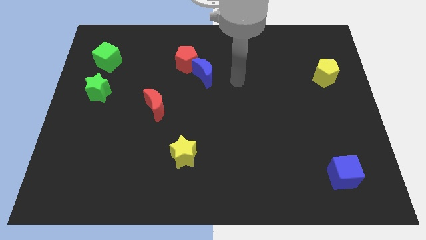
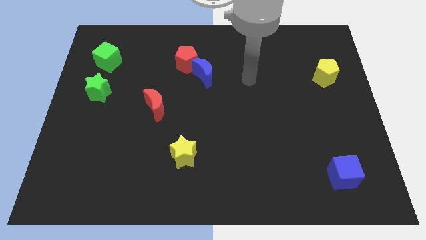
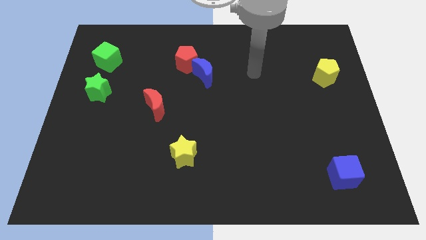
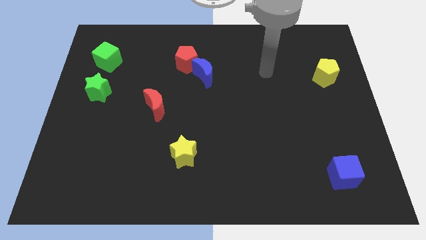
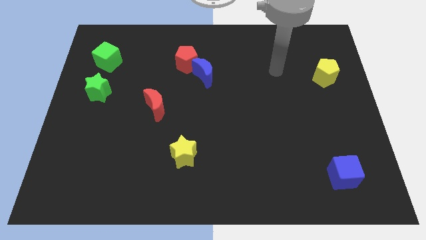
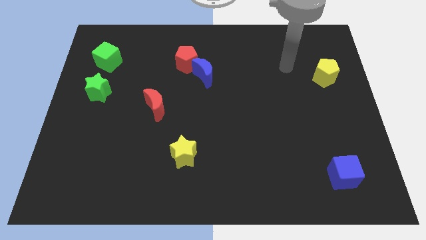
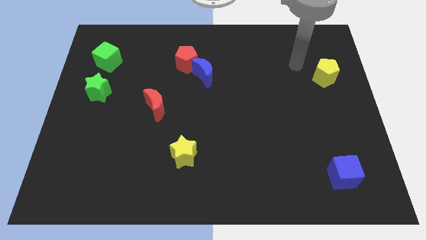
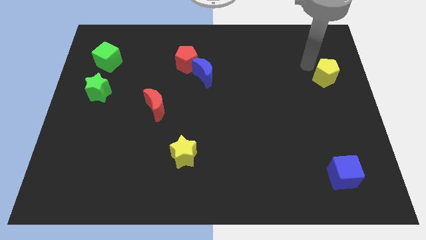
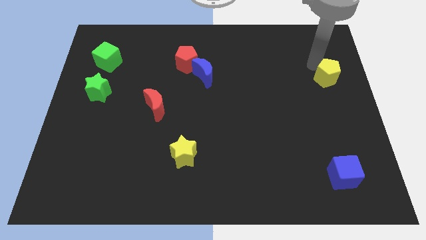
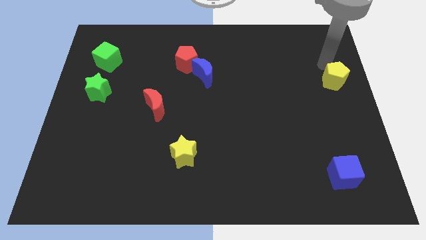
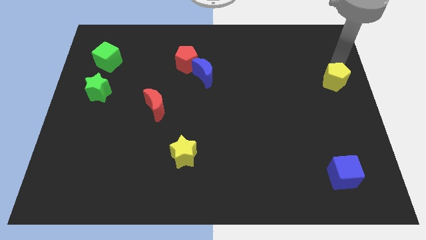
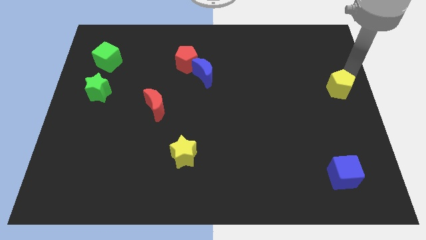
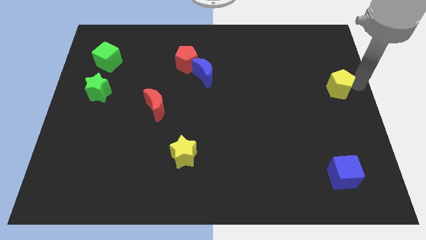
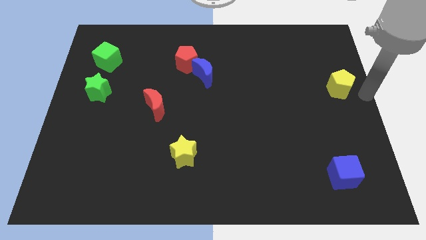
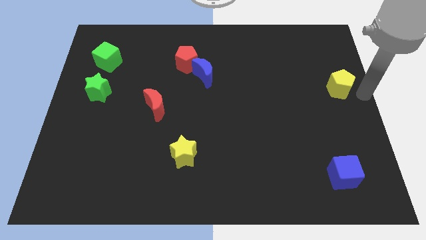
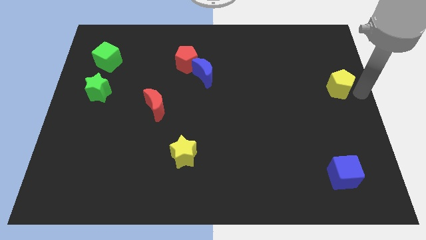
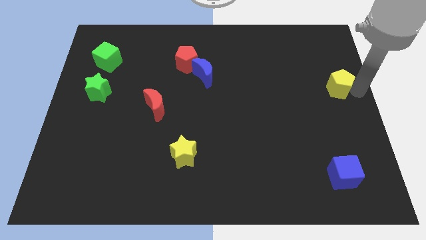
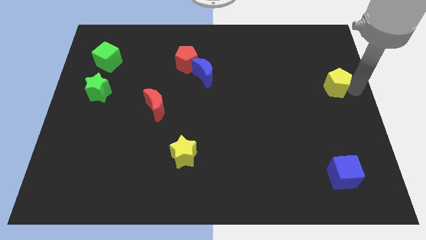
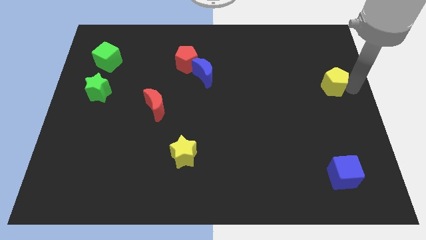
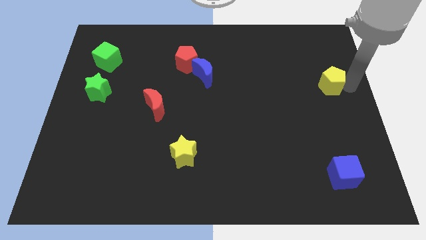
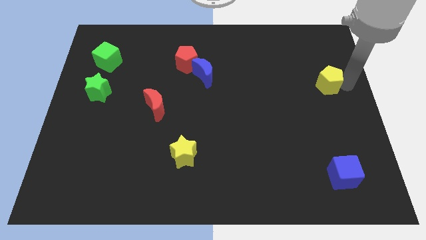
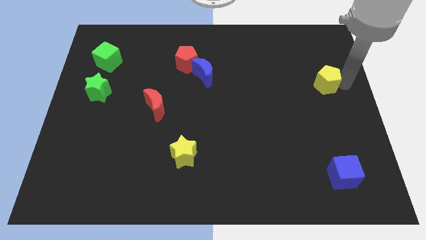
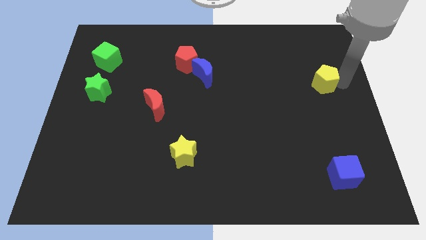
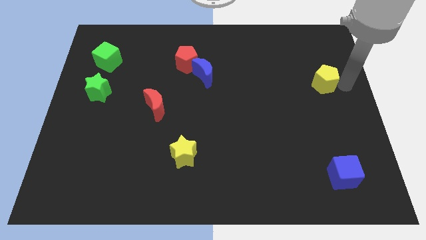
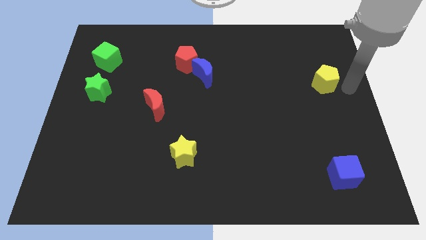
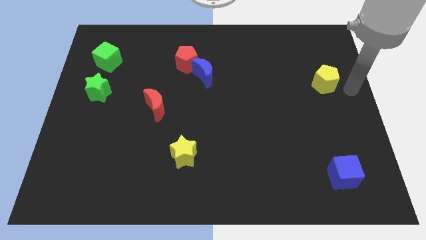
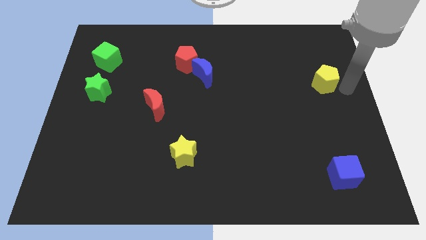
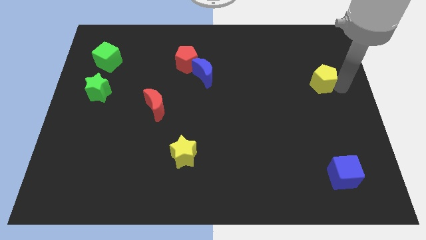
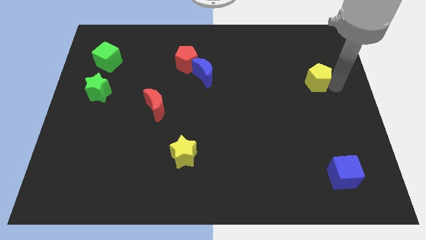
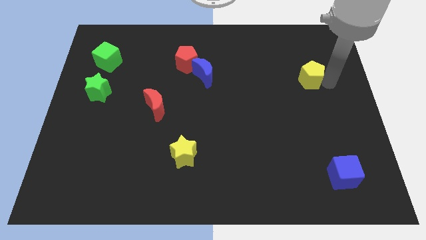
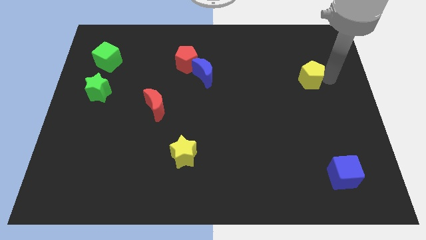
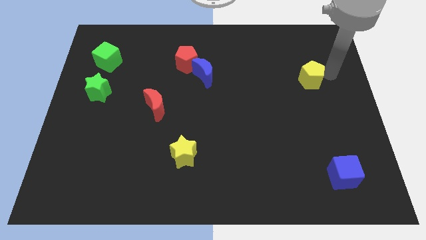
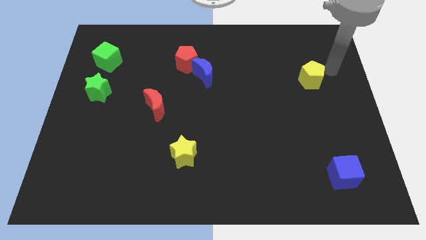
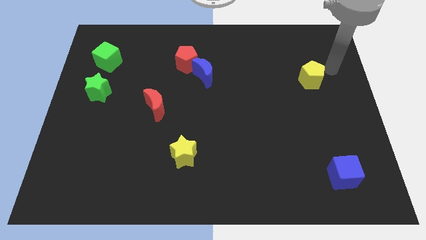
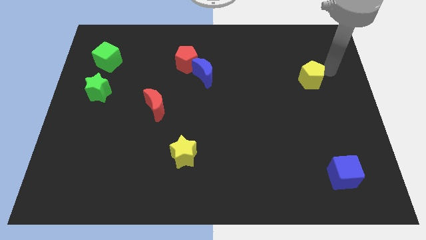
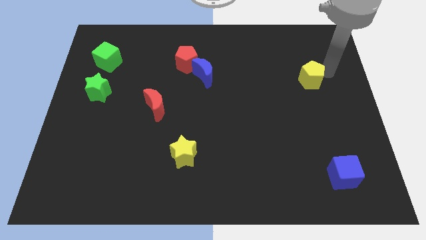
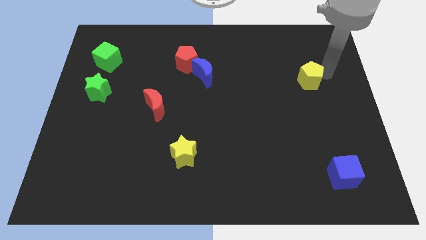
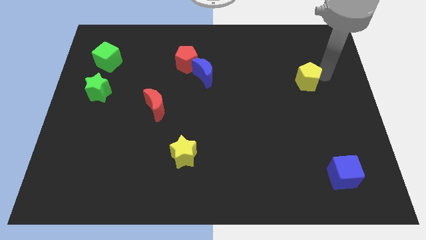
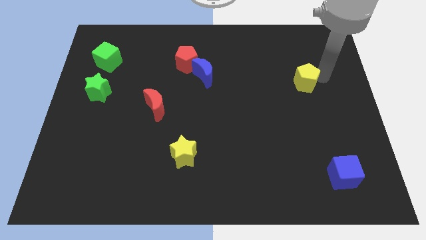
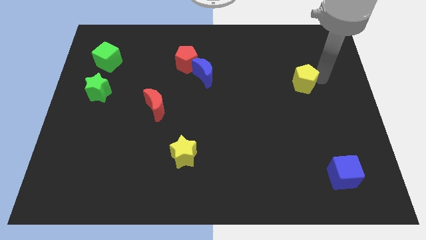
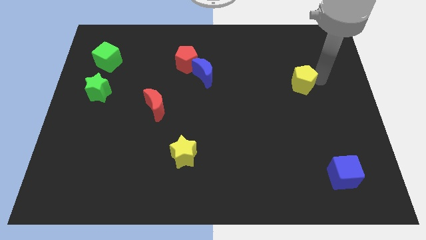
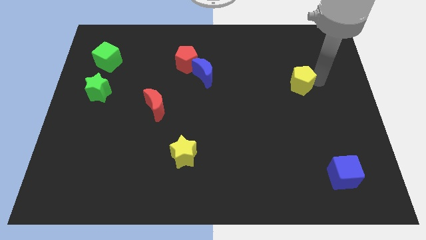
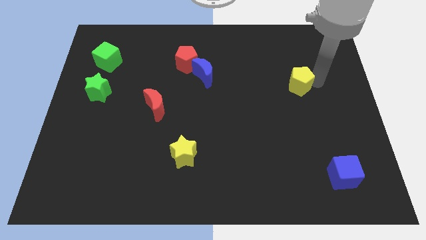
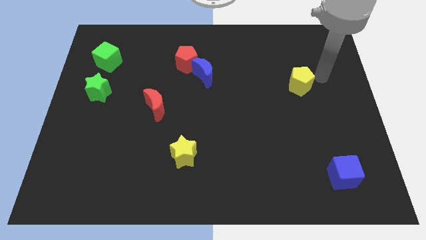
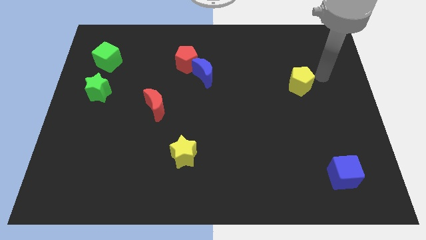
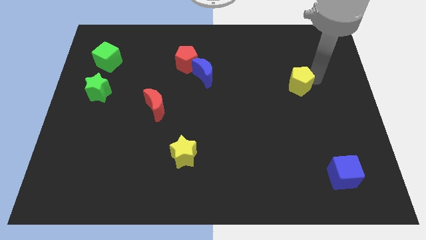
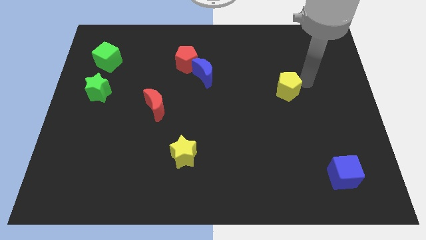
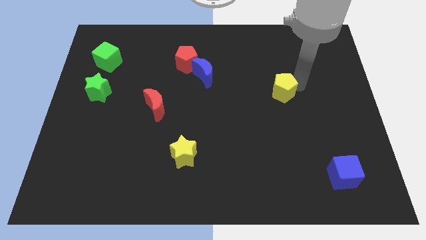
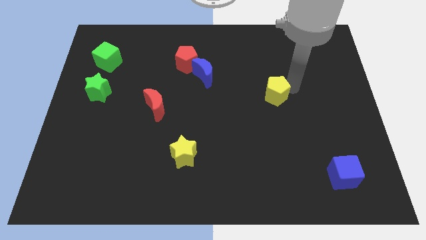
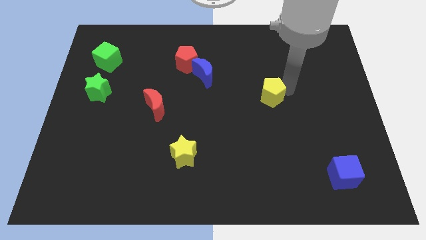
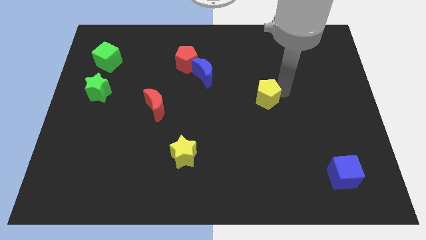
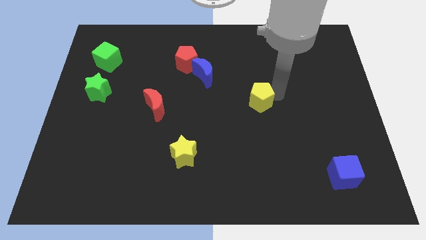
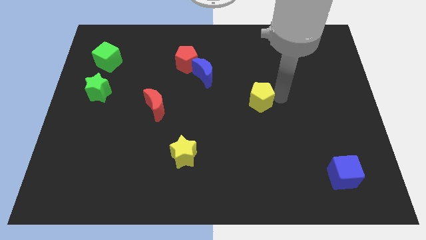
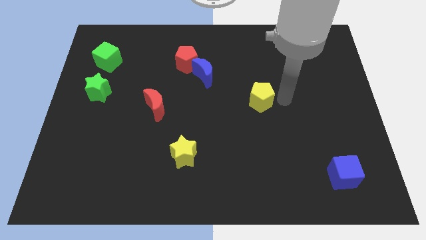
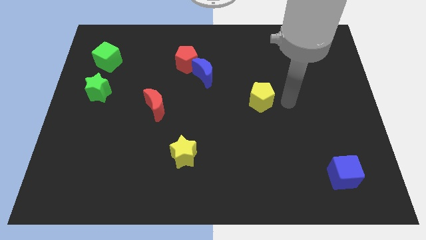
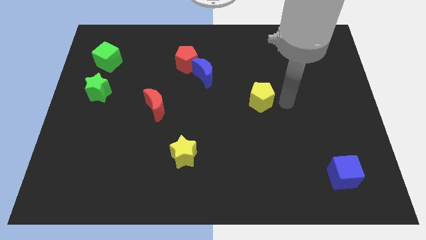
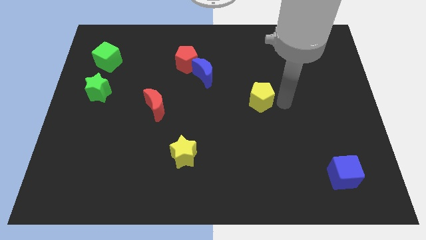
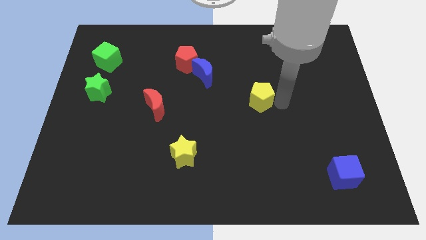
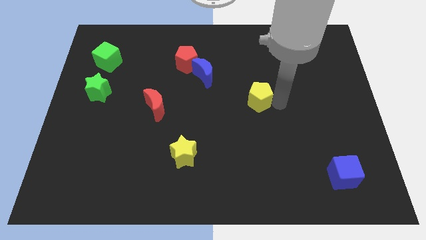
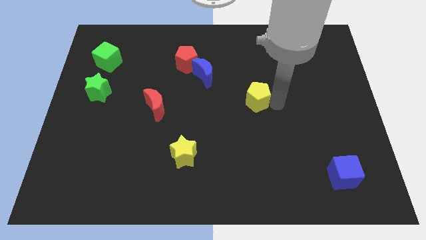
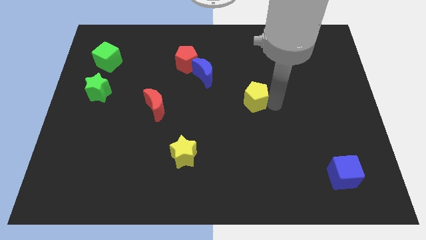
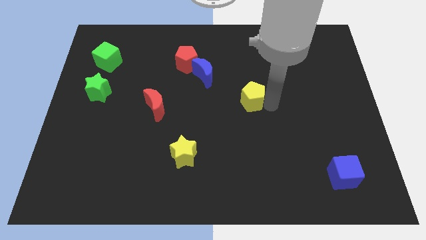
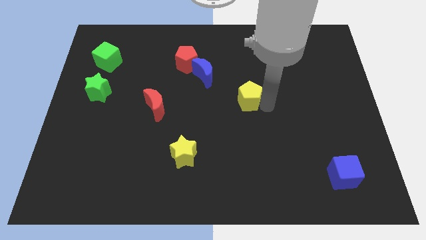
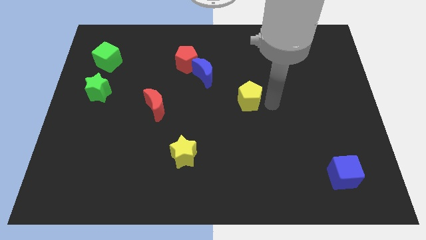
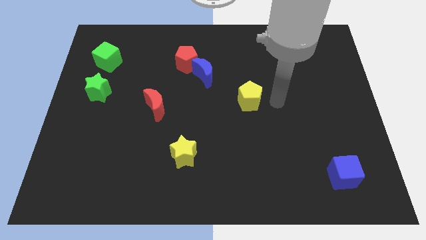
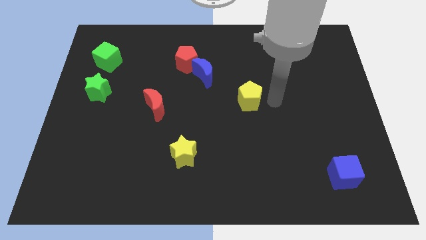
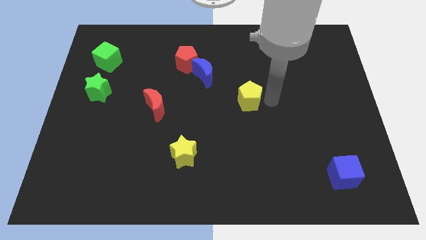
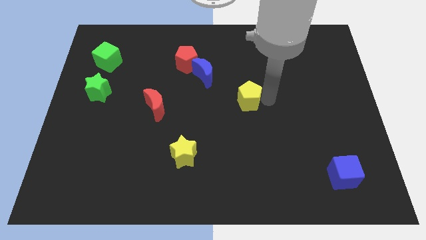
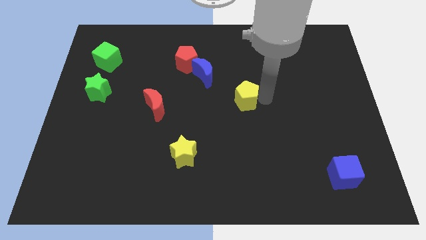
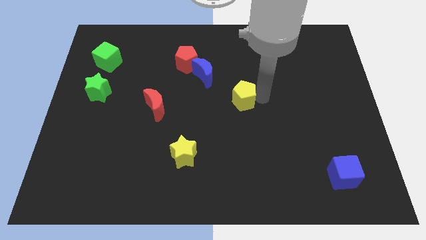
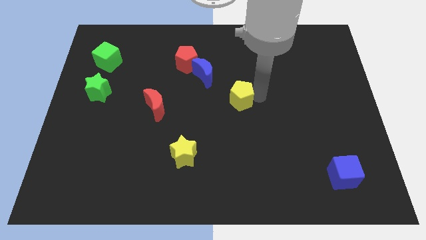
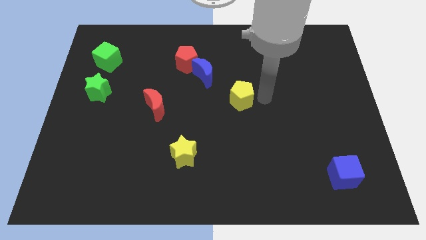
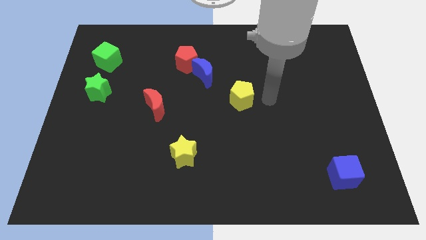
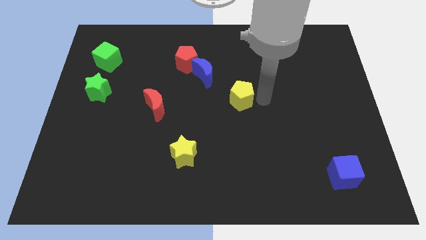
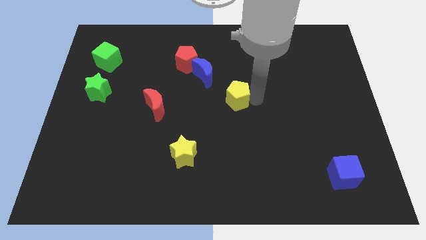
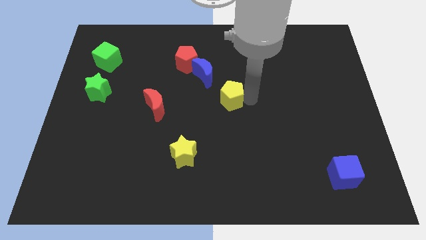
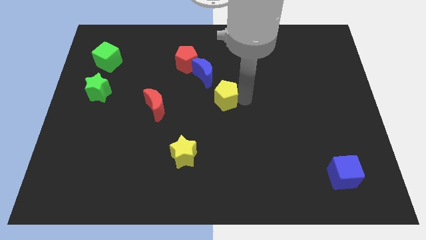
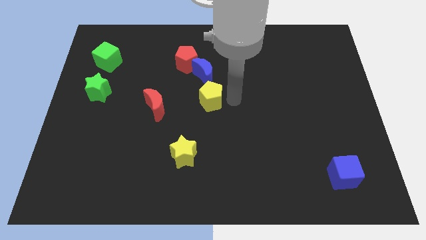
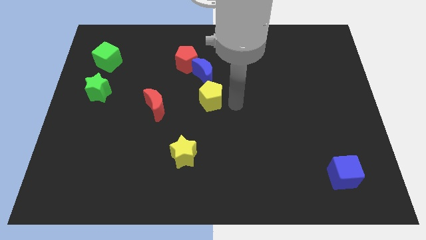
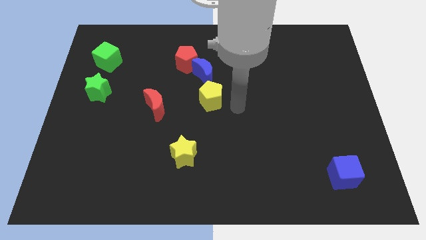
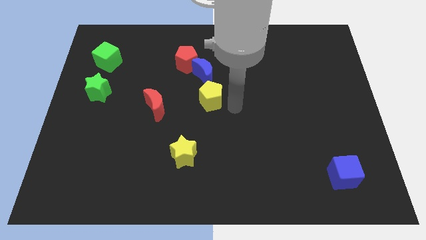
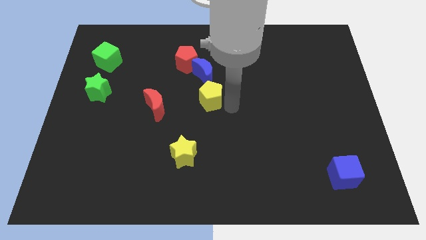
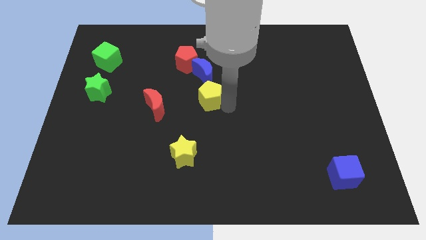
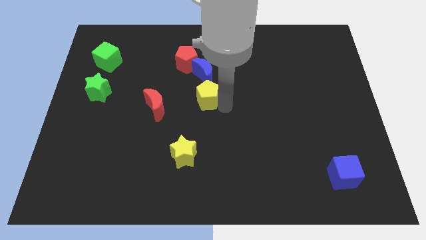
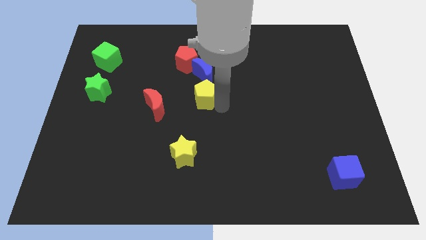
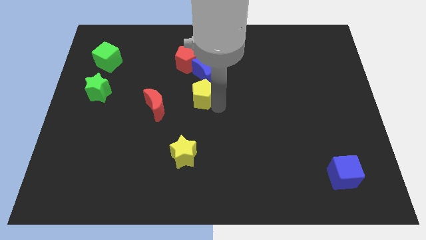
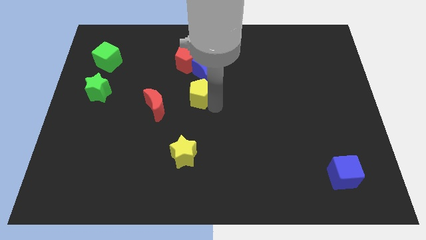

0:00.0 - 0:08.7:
put the yellow pentagon diagonally down and to the left of the blue moon
